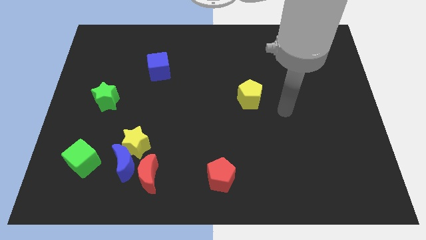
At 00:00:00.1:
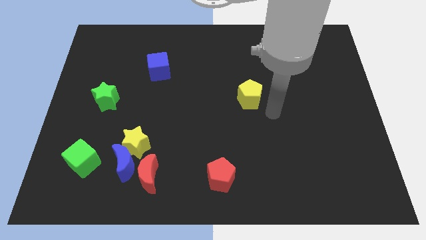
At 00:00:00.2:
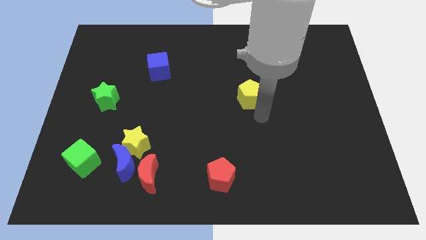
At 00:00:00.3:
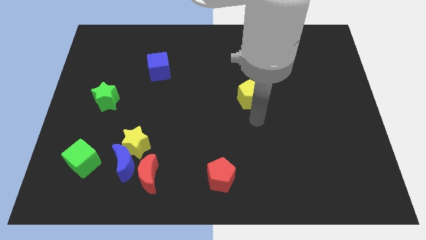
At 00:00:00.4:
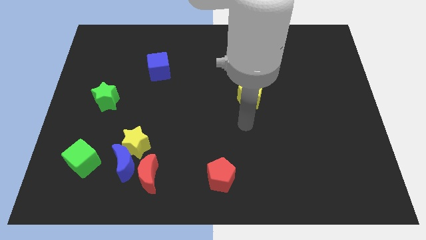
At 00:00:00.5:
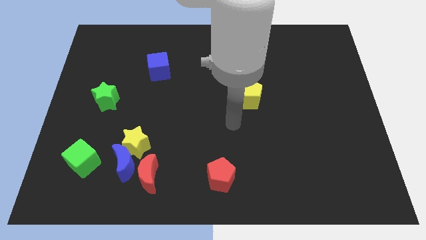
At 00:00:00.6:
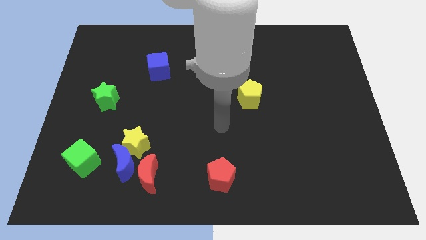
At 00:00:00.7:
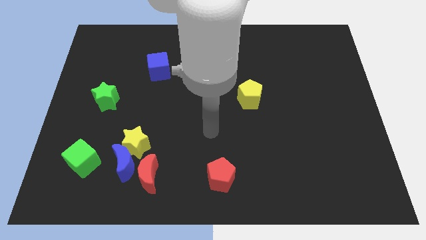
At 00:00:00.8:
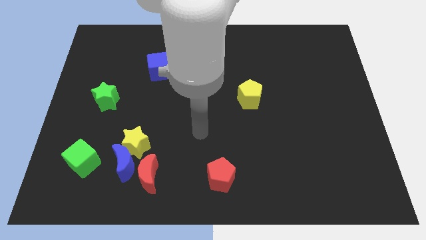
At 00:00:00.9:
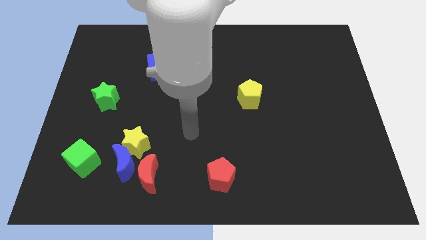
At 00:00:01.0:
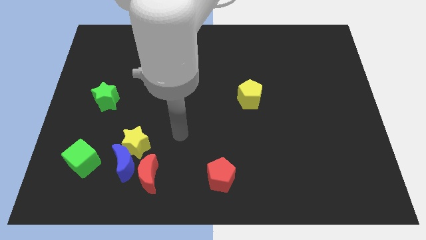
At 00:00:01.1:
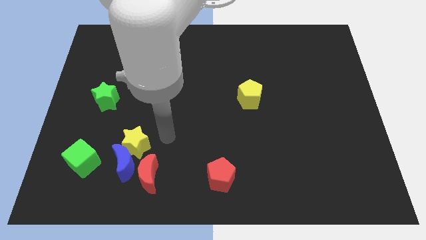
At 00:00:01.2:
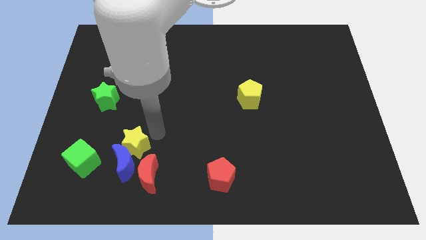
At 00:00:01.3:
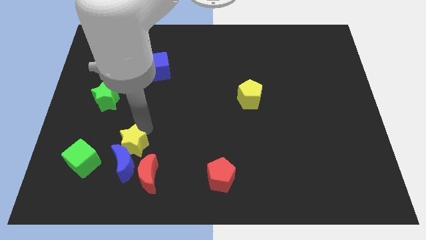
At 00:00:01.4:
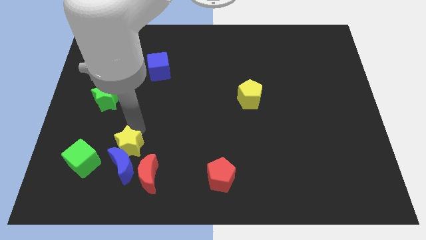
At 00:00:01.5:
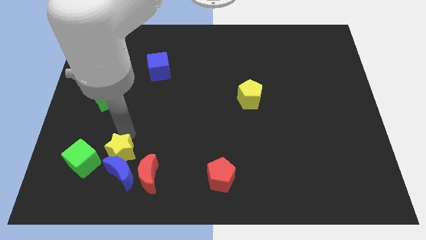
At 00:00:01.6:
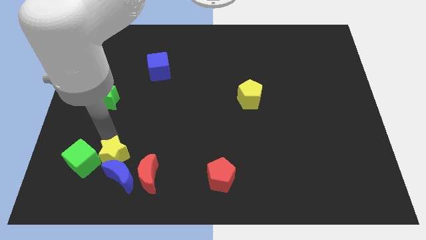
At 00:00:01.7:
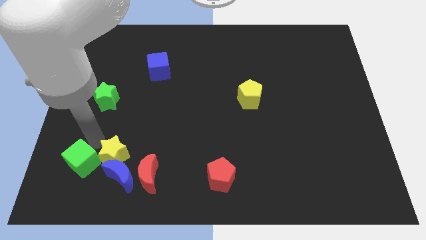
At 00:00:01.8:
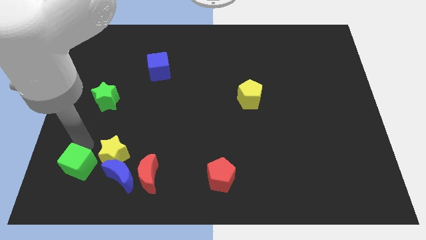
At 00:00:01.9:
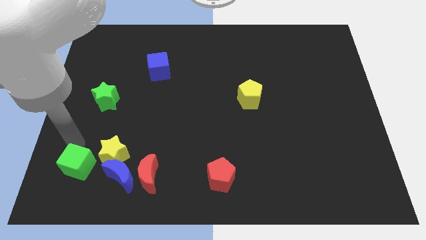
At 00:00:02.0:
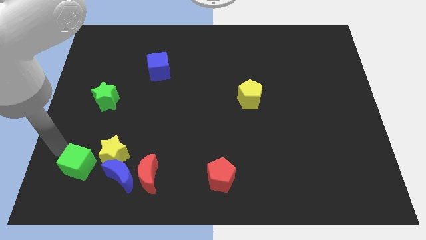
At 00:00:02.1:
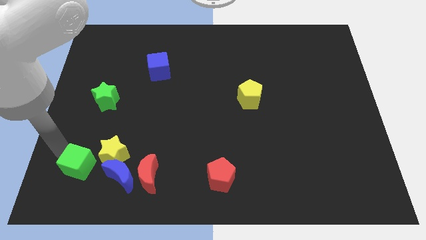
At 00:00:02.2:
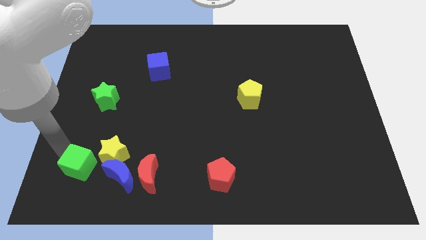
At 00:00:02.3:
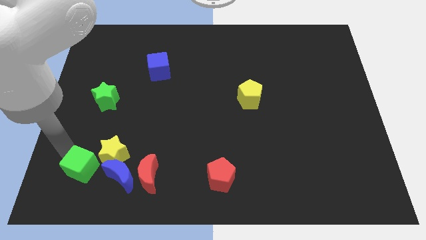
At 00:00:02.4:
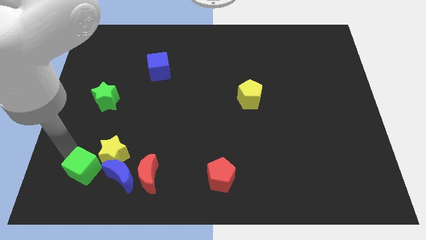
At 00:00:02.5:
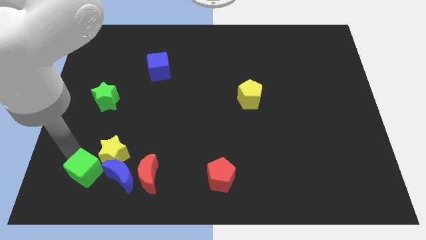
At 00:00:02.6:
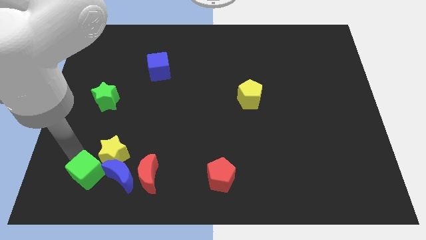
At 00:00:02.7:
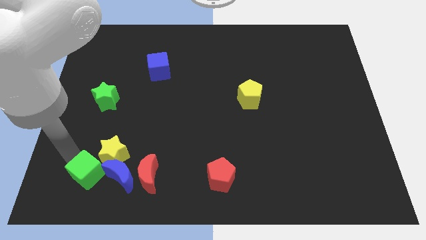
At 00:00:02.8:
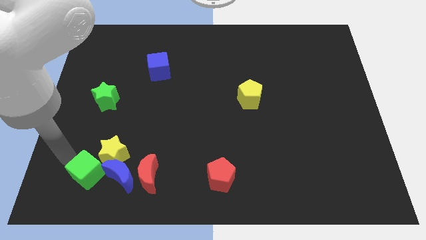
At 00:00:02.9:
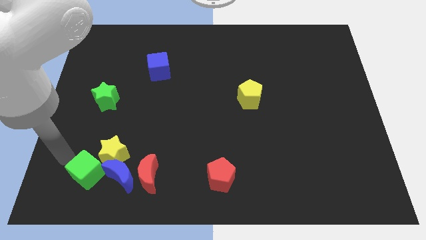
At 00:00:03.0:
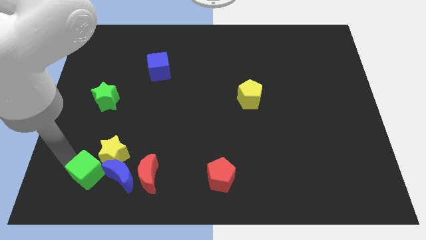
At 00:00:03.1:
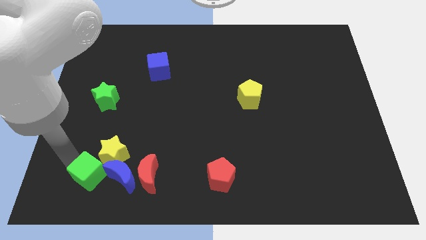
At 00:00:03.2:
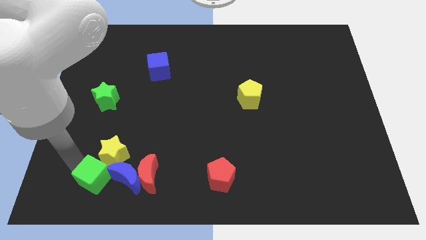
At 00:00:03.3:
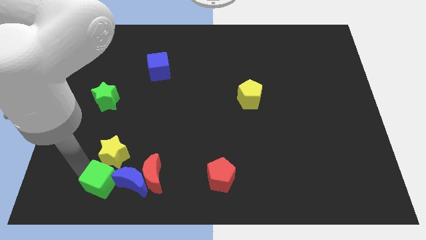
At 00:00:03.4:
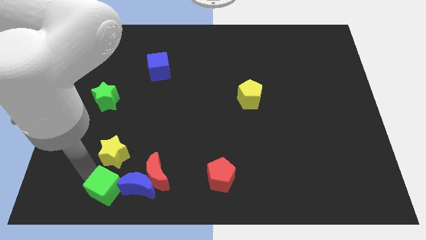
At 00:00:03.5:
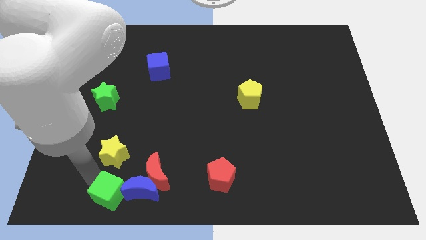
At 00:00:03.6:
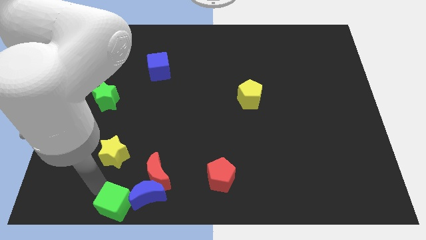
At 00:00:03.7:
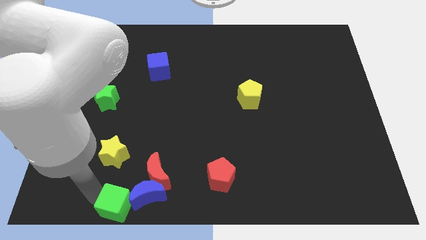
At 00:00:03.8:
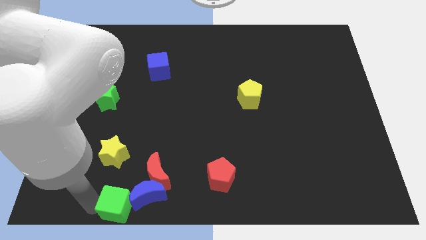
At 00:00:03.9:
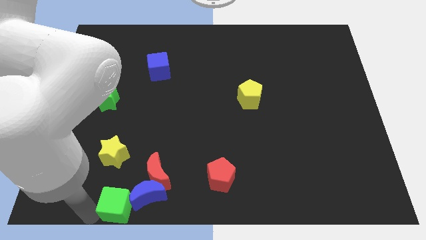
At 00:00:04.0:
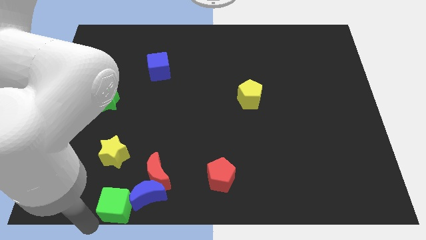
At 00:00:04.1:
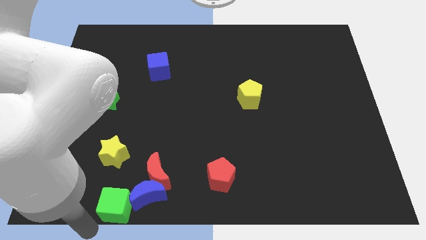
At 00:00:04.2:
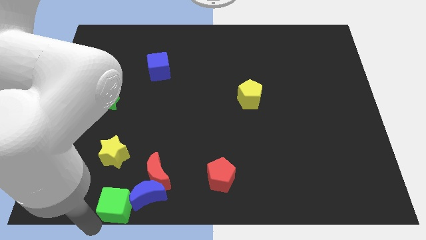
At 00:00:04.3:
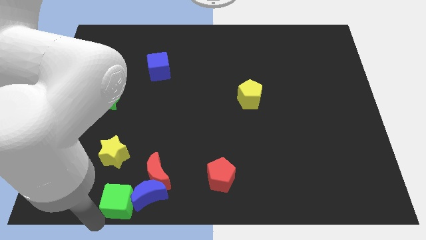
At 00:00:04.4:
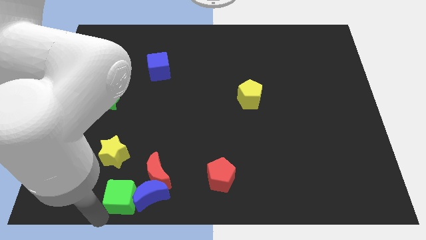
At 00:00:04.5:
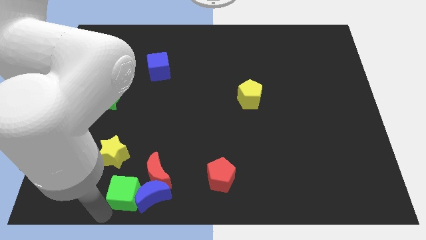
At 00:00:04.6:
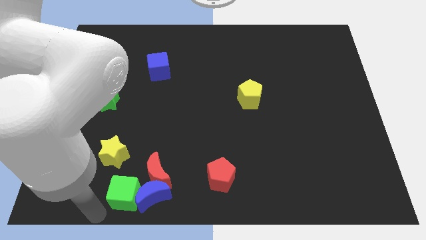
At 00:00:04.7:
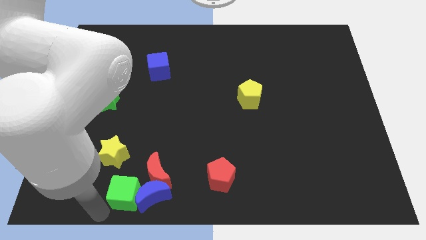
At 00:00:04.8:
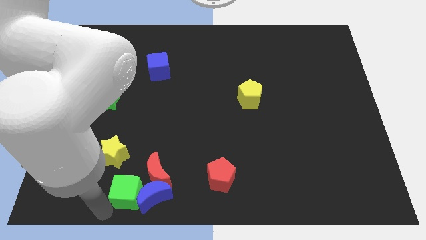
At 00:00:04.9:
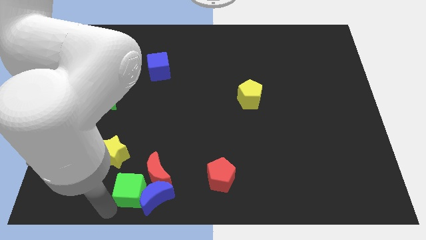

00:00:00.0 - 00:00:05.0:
push the green cube next to the red moon

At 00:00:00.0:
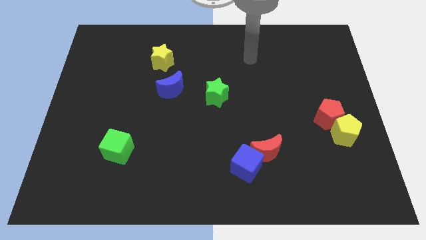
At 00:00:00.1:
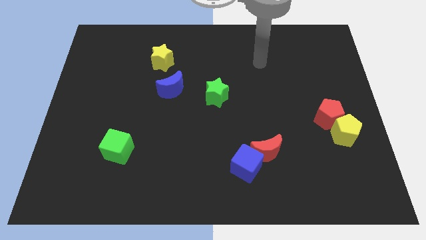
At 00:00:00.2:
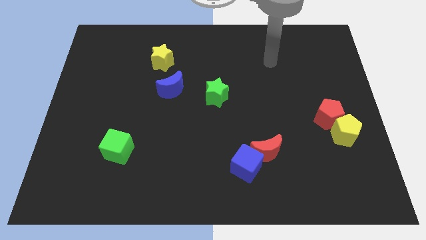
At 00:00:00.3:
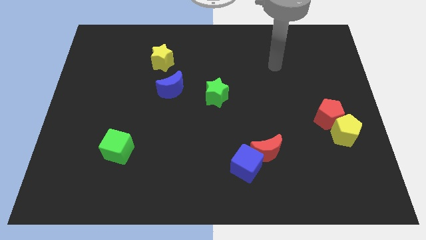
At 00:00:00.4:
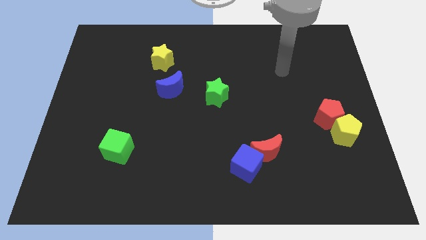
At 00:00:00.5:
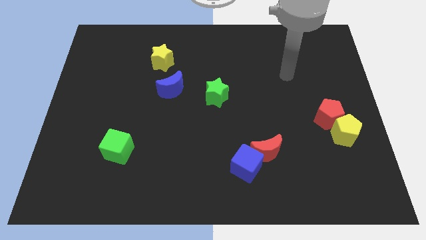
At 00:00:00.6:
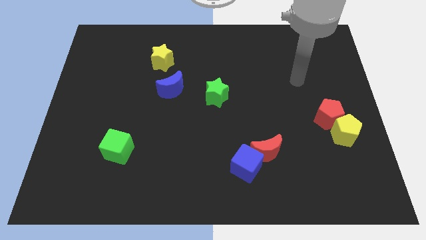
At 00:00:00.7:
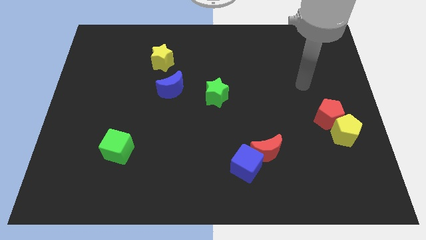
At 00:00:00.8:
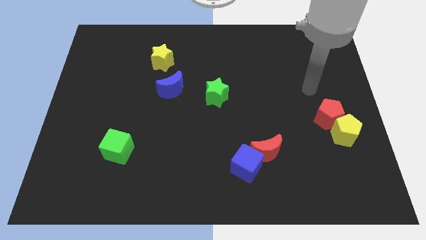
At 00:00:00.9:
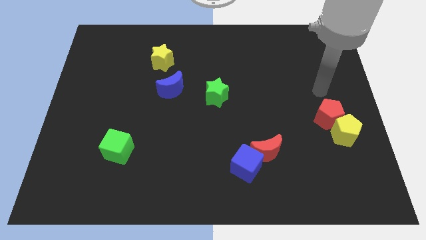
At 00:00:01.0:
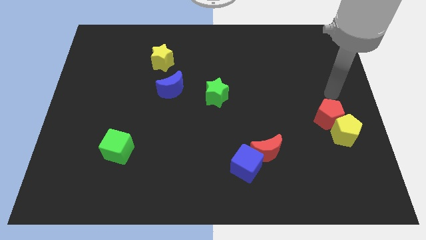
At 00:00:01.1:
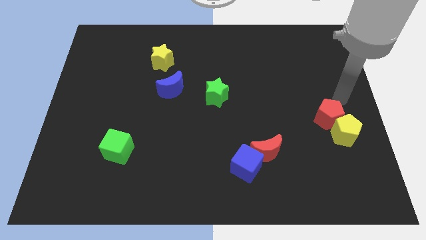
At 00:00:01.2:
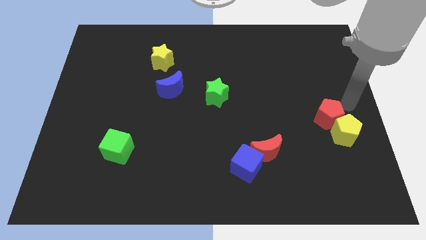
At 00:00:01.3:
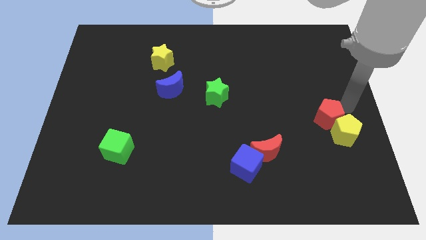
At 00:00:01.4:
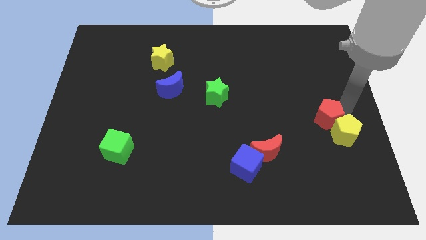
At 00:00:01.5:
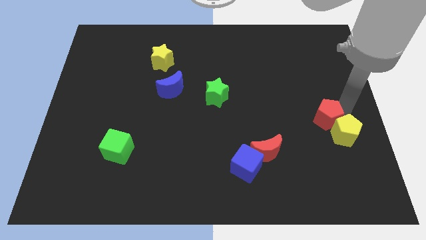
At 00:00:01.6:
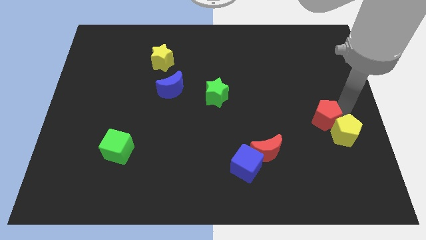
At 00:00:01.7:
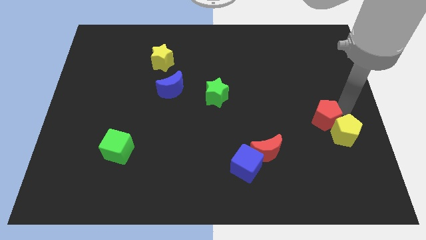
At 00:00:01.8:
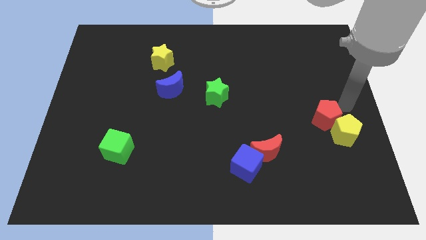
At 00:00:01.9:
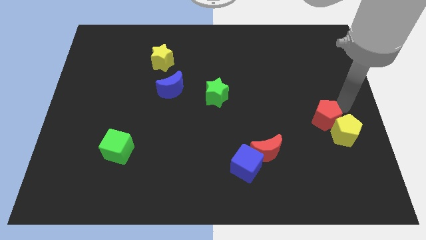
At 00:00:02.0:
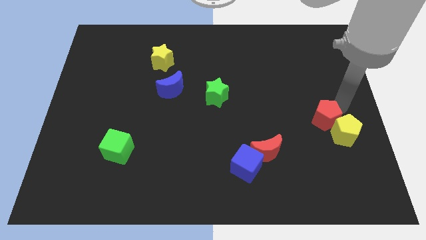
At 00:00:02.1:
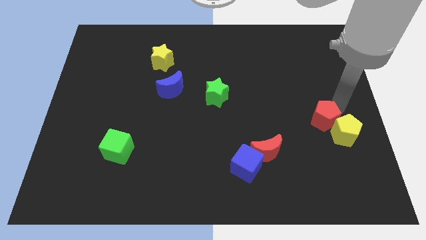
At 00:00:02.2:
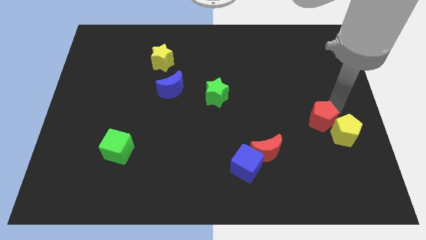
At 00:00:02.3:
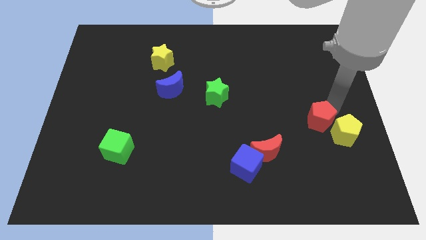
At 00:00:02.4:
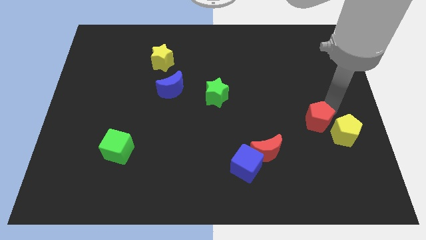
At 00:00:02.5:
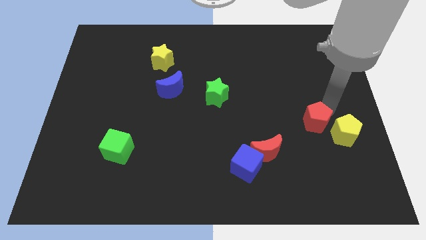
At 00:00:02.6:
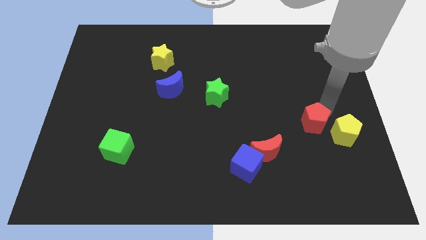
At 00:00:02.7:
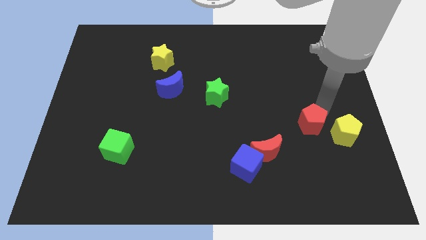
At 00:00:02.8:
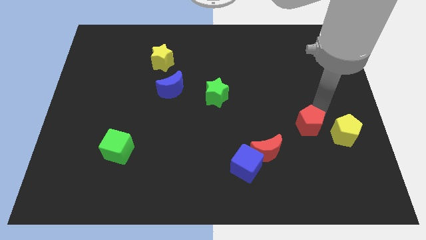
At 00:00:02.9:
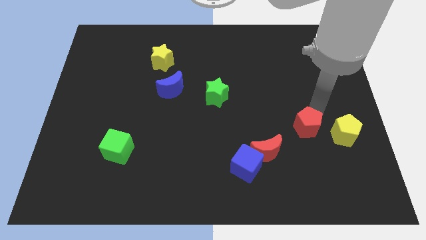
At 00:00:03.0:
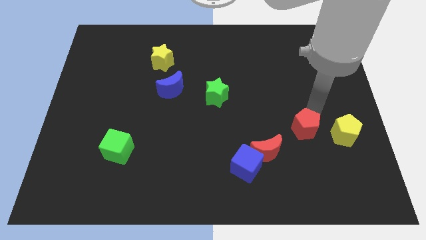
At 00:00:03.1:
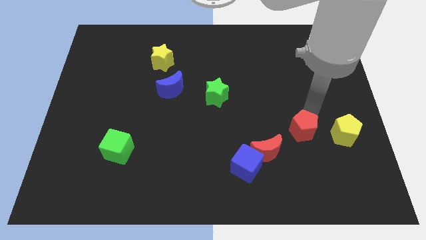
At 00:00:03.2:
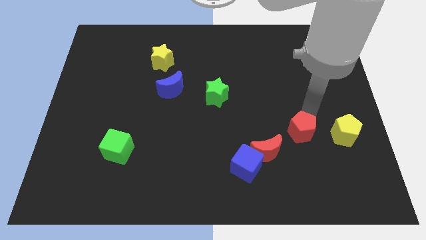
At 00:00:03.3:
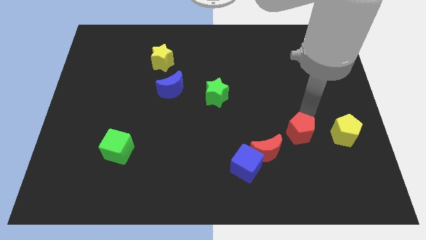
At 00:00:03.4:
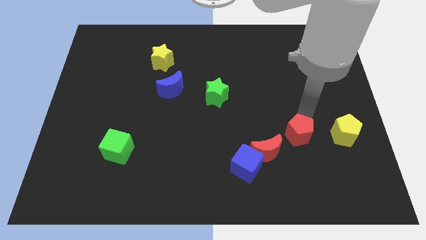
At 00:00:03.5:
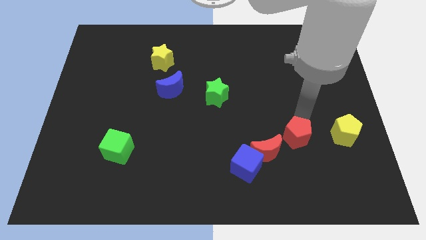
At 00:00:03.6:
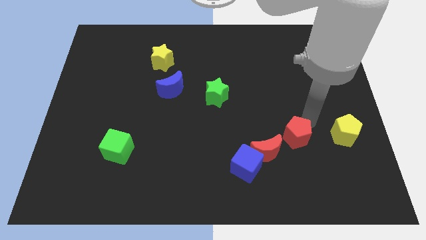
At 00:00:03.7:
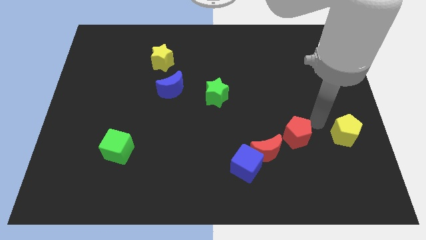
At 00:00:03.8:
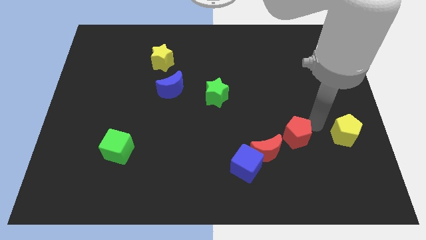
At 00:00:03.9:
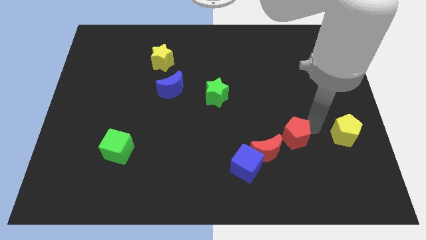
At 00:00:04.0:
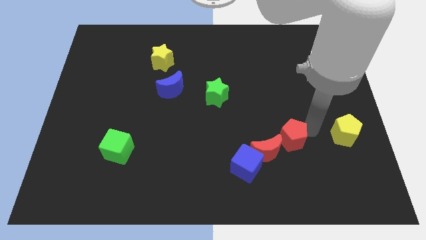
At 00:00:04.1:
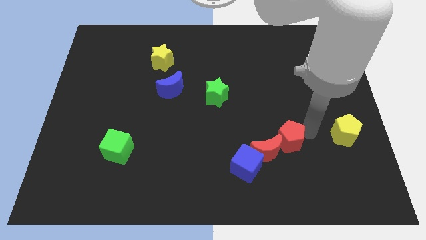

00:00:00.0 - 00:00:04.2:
put the red pentagon close to the red moon
